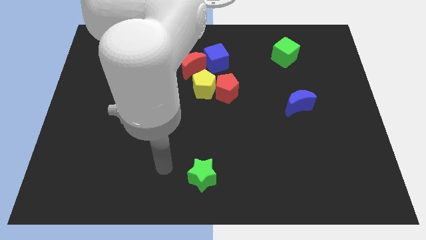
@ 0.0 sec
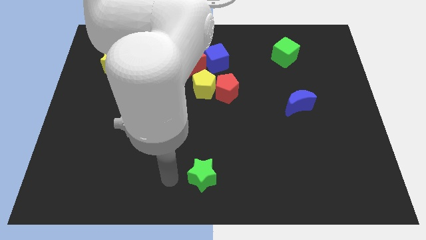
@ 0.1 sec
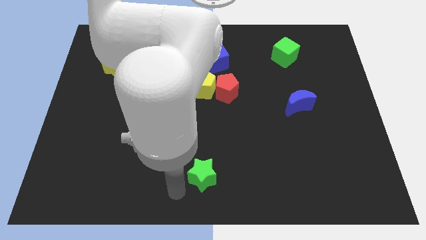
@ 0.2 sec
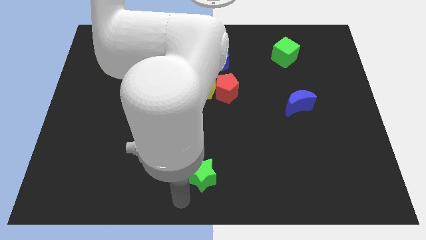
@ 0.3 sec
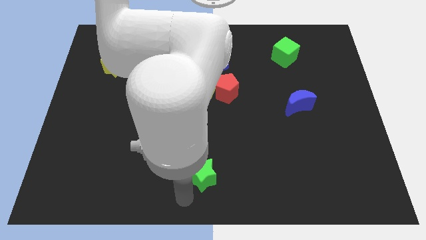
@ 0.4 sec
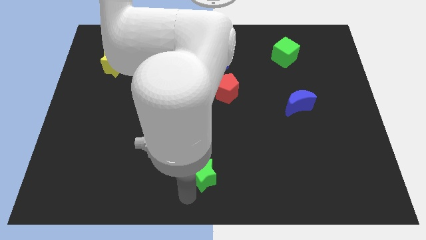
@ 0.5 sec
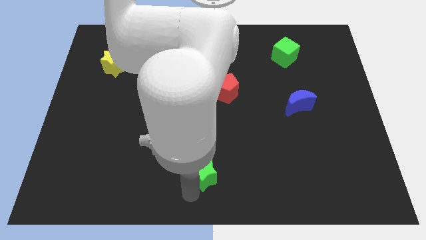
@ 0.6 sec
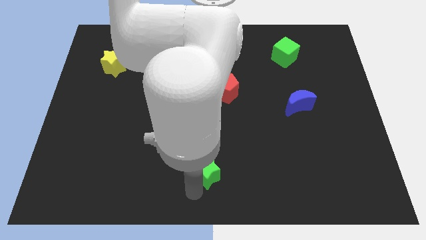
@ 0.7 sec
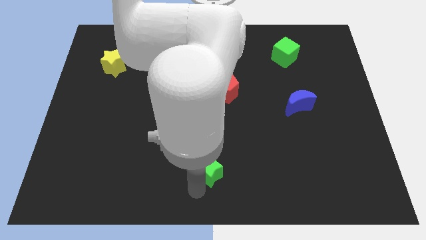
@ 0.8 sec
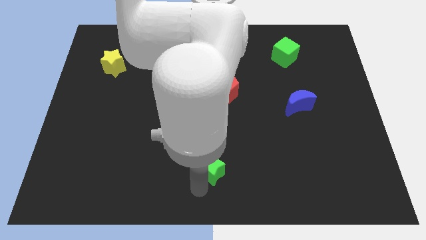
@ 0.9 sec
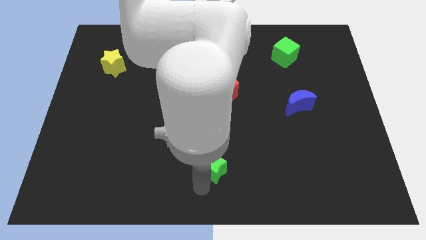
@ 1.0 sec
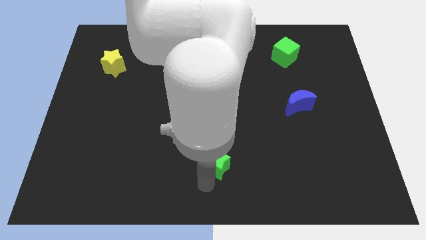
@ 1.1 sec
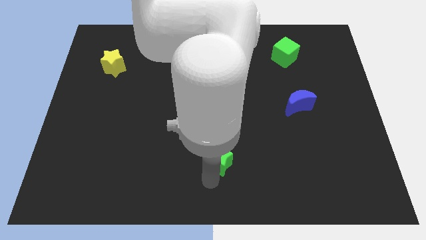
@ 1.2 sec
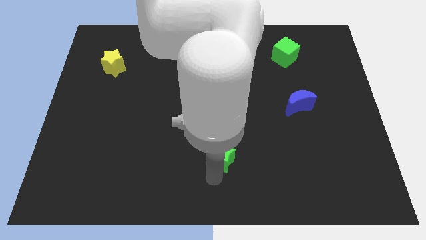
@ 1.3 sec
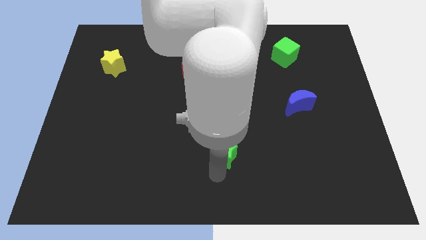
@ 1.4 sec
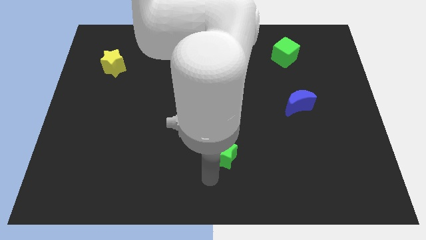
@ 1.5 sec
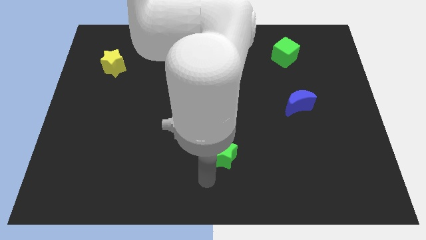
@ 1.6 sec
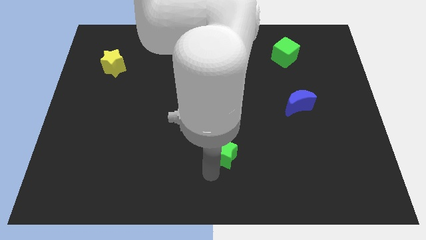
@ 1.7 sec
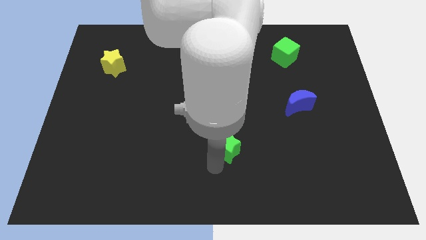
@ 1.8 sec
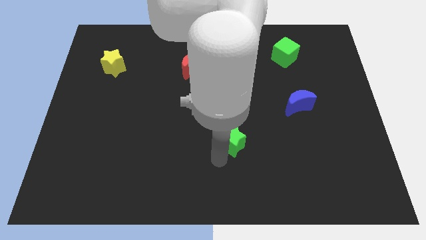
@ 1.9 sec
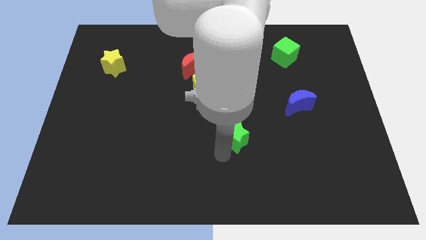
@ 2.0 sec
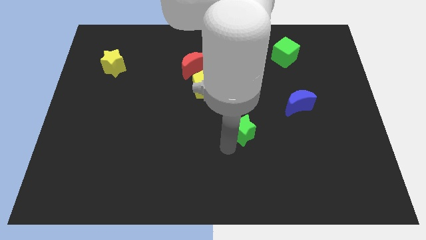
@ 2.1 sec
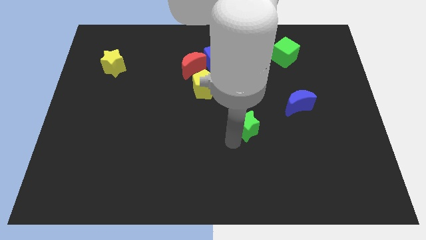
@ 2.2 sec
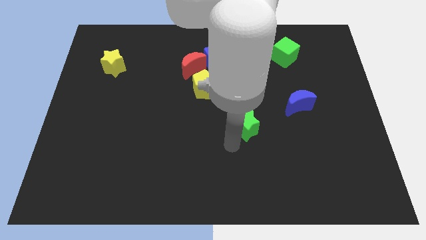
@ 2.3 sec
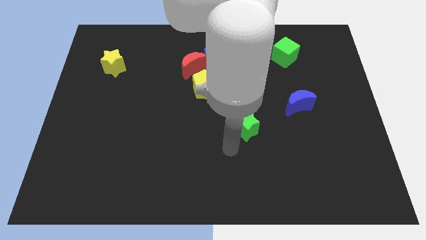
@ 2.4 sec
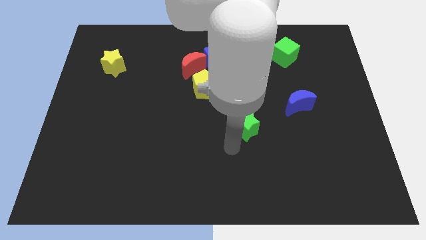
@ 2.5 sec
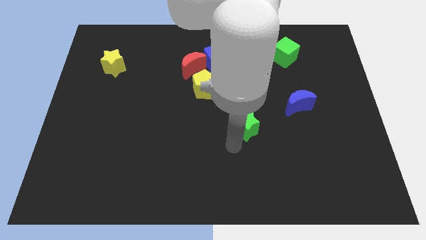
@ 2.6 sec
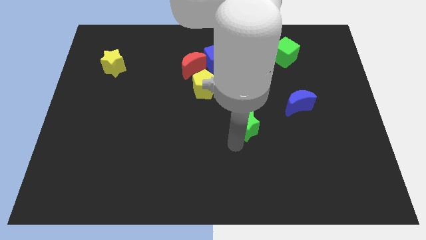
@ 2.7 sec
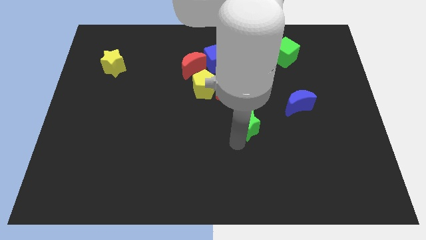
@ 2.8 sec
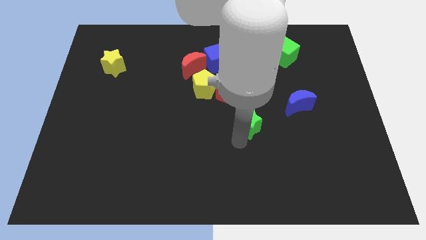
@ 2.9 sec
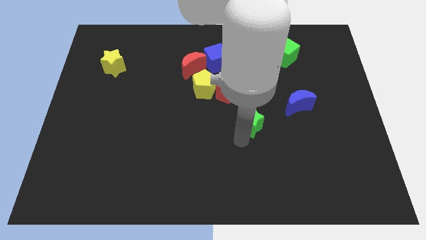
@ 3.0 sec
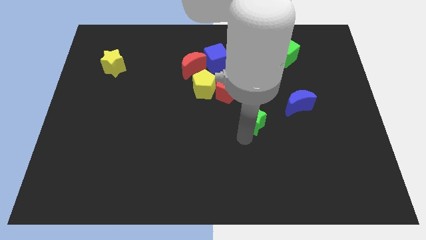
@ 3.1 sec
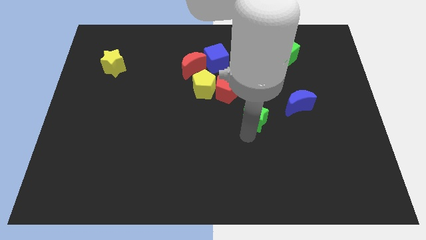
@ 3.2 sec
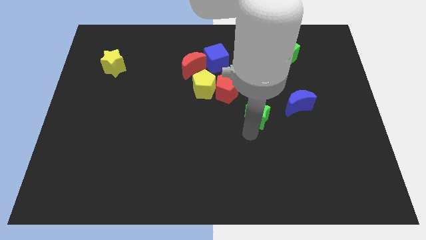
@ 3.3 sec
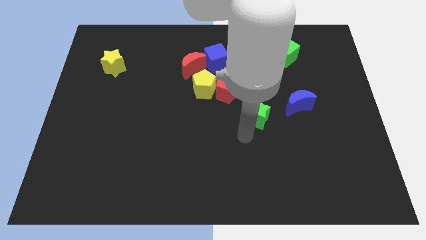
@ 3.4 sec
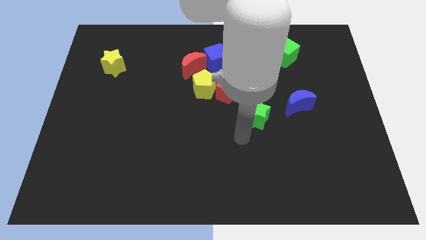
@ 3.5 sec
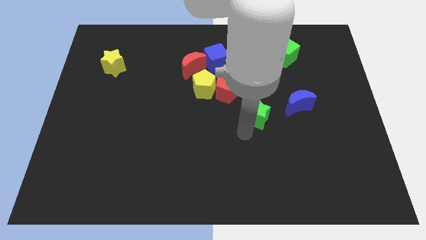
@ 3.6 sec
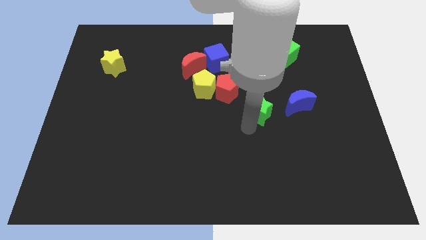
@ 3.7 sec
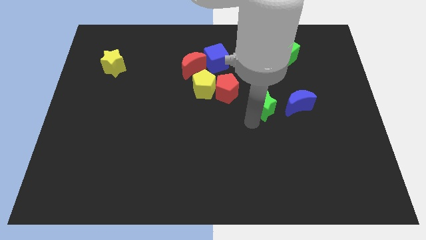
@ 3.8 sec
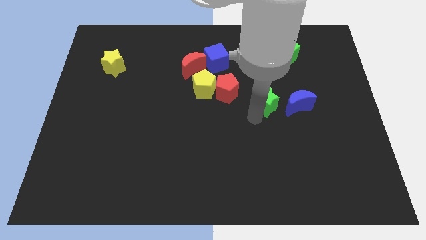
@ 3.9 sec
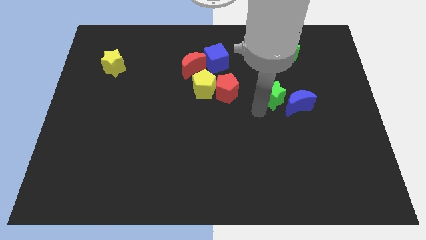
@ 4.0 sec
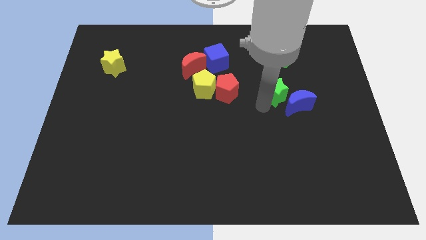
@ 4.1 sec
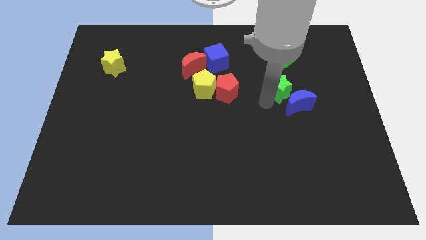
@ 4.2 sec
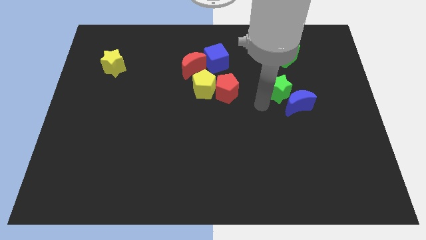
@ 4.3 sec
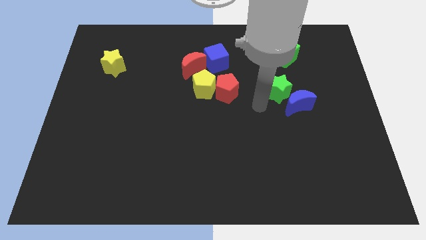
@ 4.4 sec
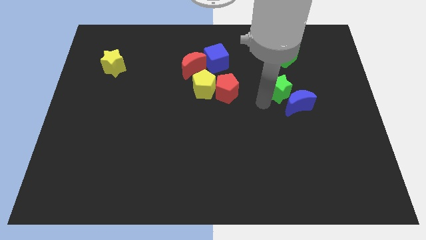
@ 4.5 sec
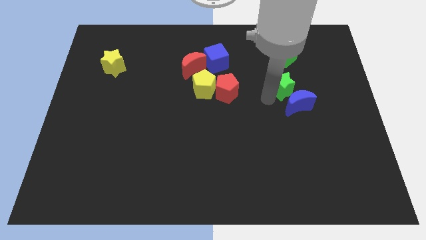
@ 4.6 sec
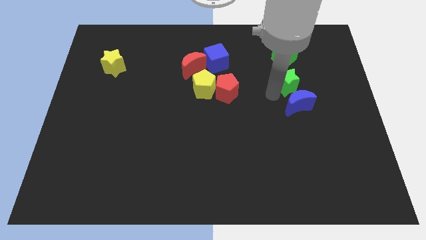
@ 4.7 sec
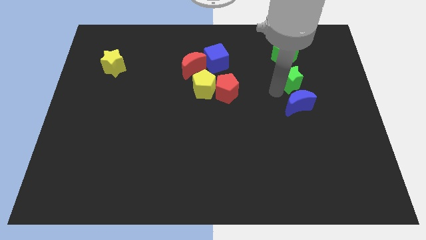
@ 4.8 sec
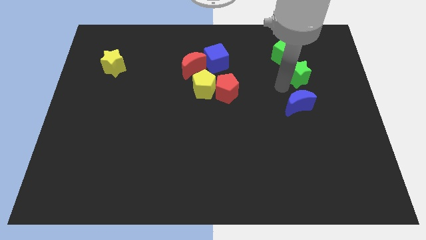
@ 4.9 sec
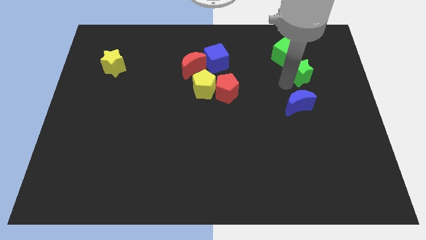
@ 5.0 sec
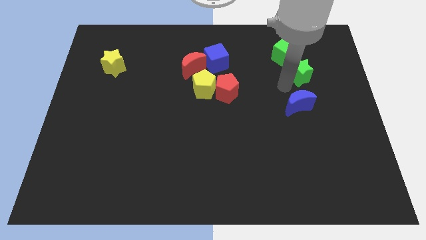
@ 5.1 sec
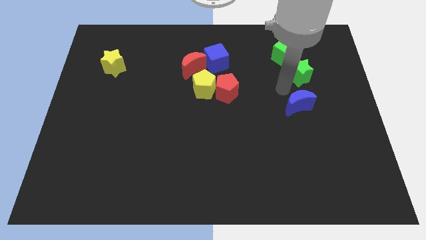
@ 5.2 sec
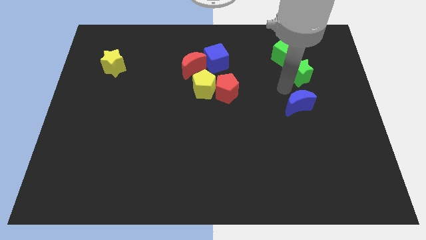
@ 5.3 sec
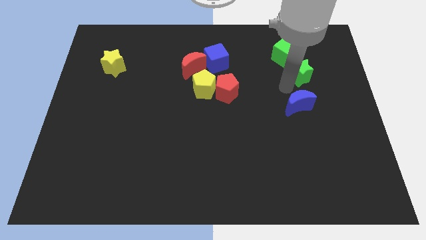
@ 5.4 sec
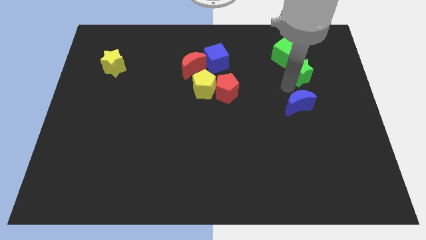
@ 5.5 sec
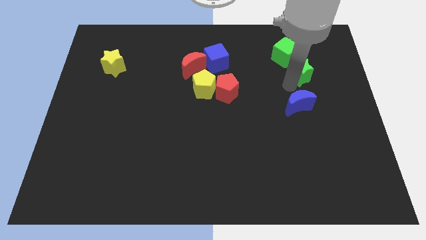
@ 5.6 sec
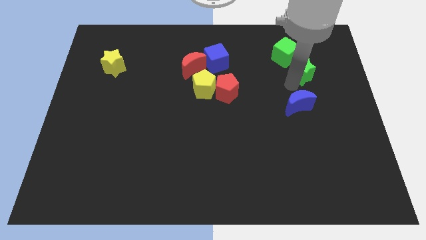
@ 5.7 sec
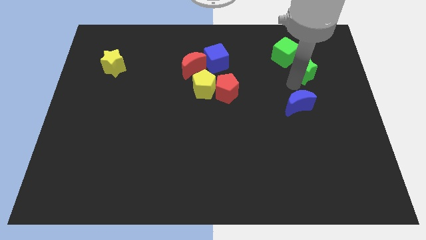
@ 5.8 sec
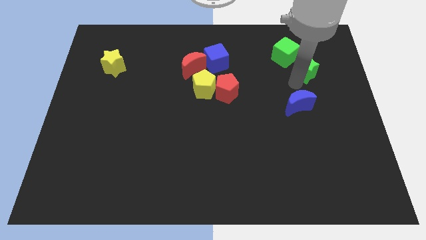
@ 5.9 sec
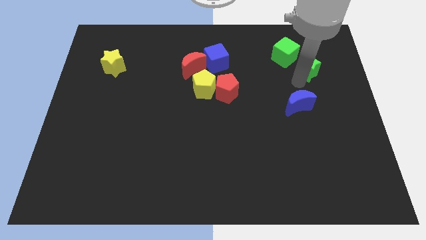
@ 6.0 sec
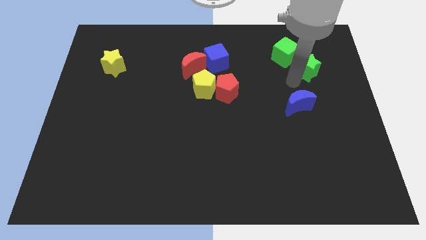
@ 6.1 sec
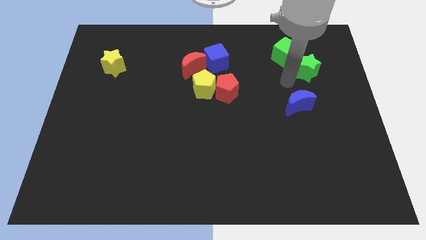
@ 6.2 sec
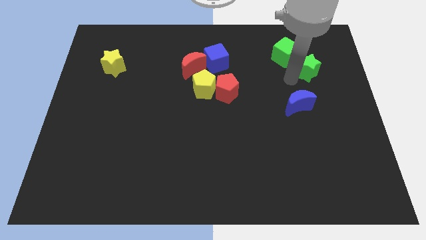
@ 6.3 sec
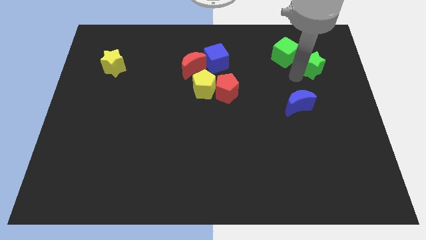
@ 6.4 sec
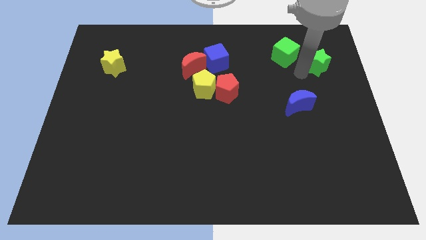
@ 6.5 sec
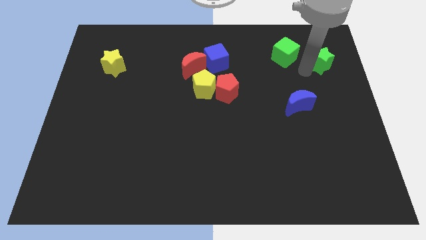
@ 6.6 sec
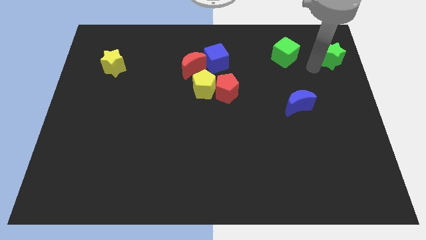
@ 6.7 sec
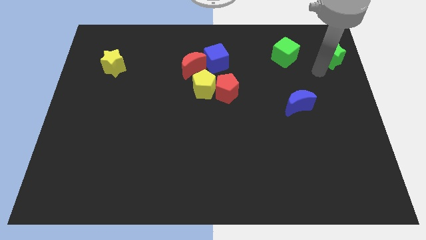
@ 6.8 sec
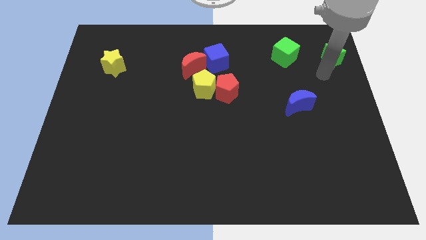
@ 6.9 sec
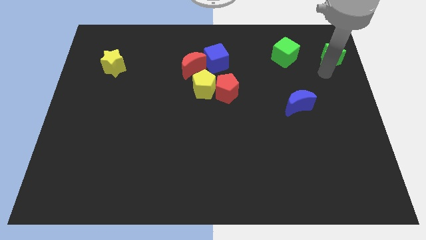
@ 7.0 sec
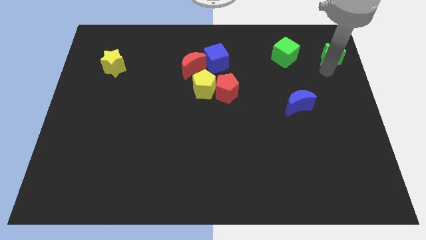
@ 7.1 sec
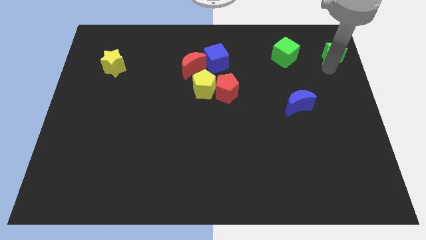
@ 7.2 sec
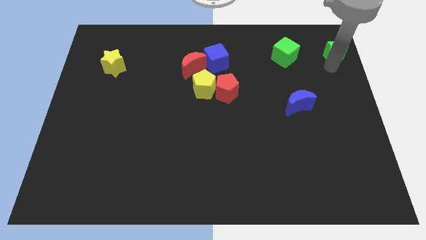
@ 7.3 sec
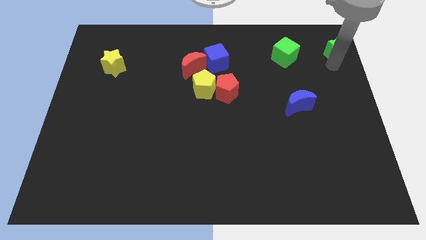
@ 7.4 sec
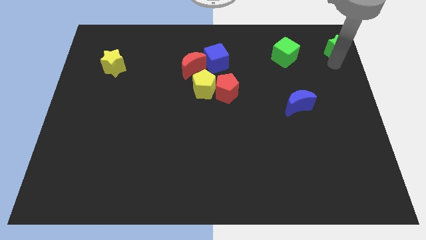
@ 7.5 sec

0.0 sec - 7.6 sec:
push the green star to the top right
